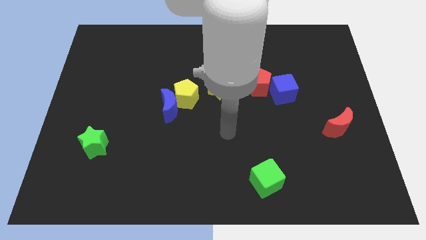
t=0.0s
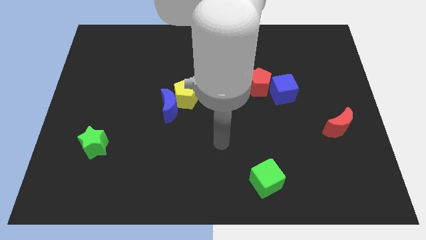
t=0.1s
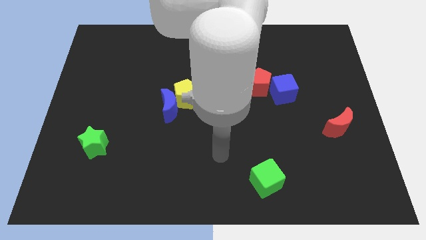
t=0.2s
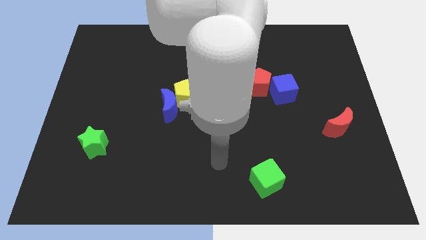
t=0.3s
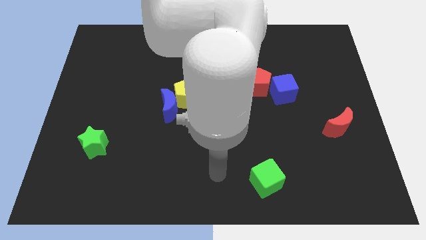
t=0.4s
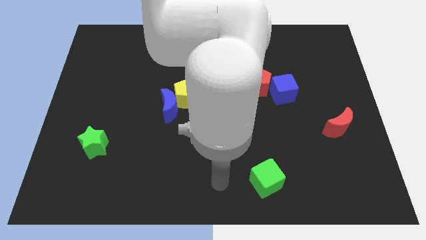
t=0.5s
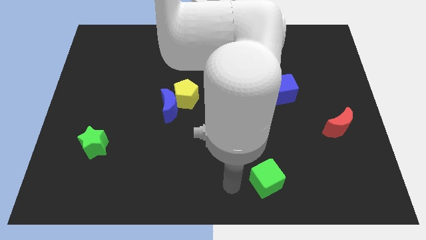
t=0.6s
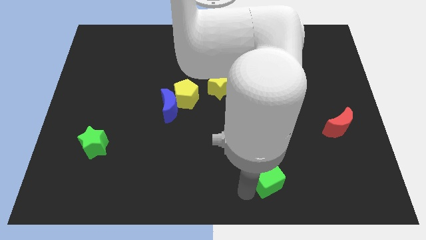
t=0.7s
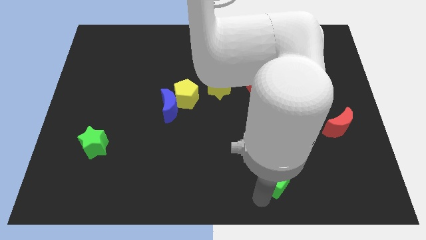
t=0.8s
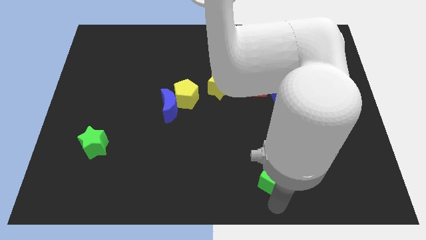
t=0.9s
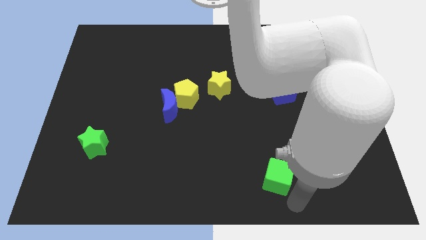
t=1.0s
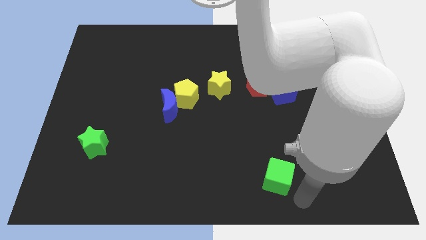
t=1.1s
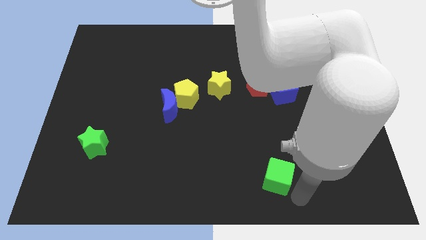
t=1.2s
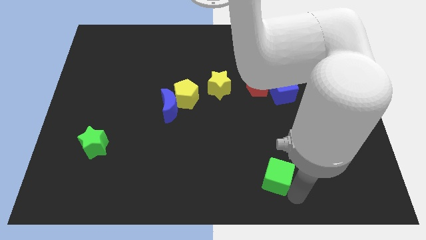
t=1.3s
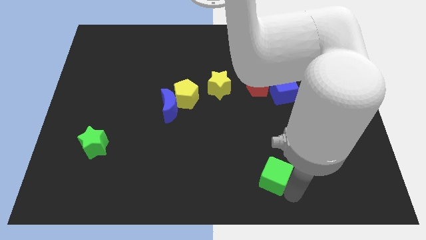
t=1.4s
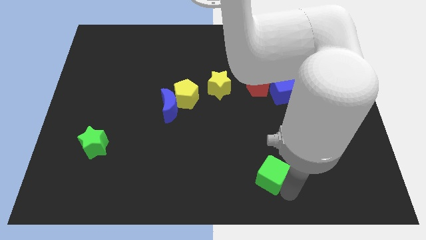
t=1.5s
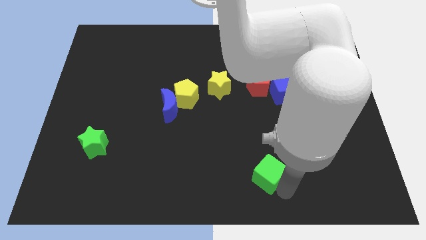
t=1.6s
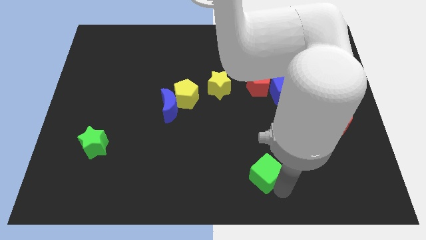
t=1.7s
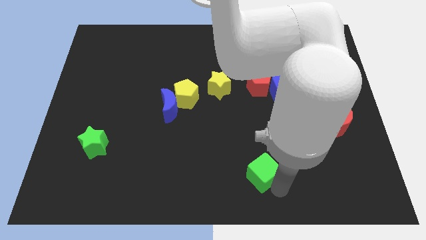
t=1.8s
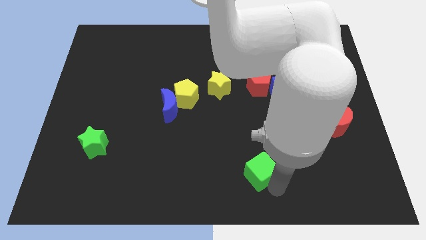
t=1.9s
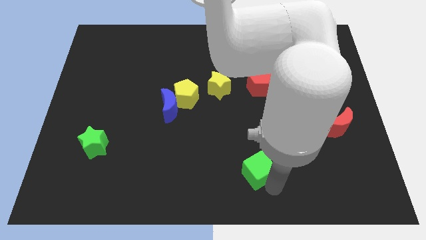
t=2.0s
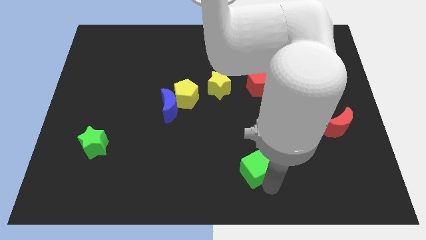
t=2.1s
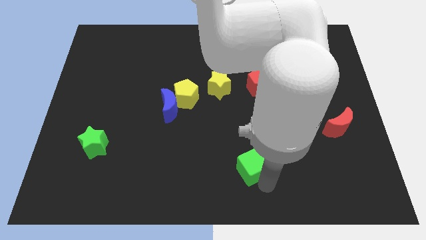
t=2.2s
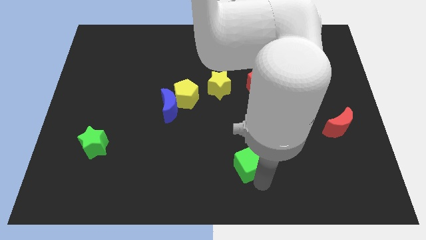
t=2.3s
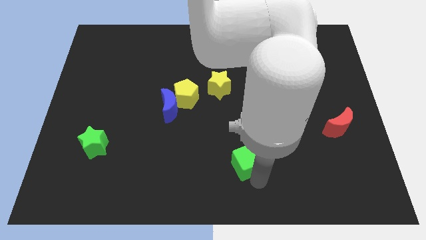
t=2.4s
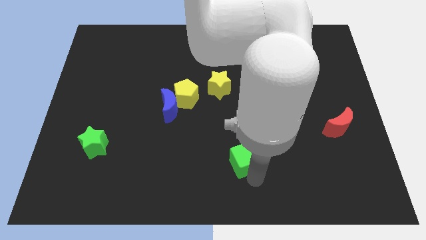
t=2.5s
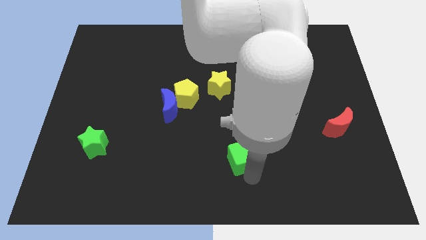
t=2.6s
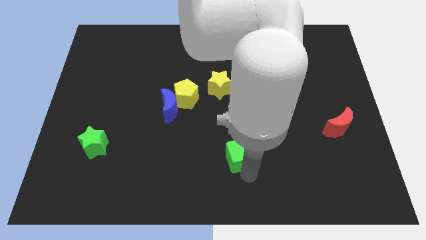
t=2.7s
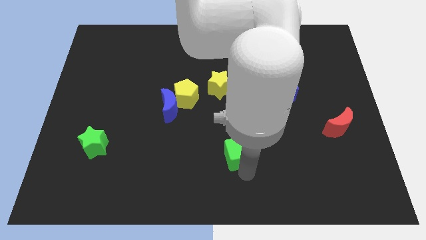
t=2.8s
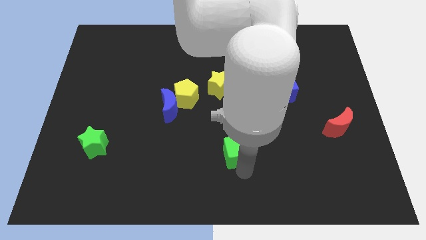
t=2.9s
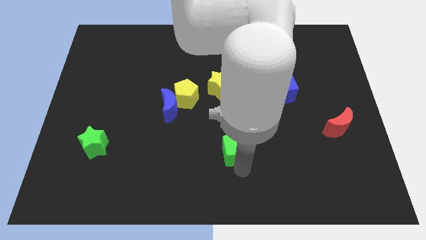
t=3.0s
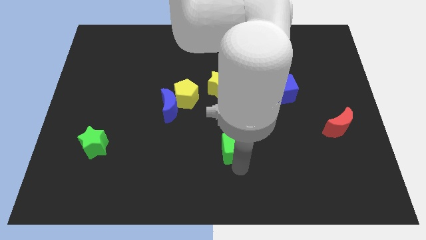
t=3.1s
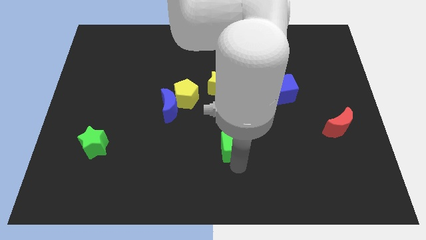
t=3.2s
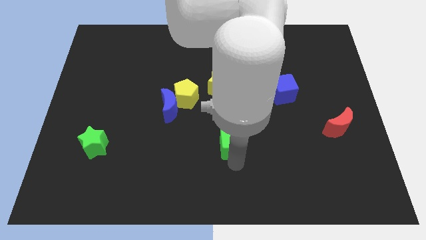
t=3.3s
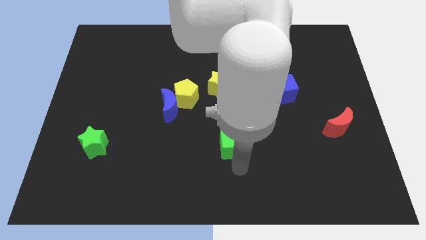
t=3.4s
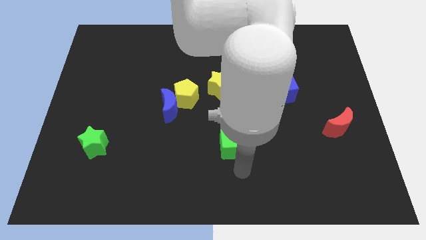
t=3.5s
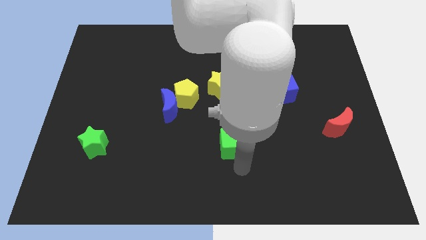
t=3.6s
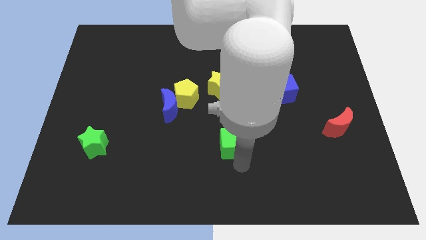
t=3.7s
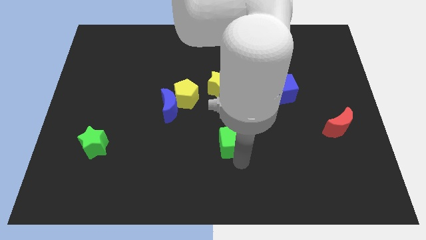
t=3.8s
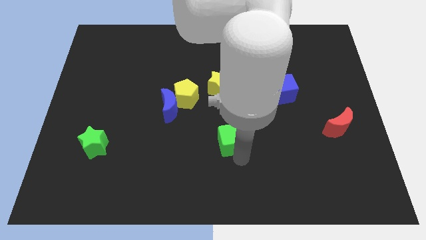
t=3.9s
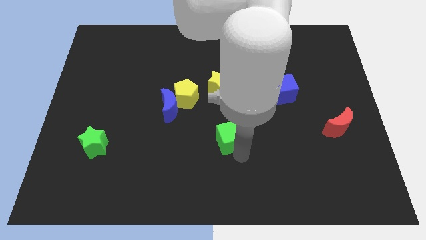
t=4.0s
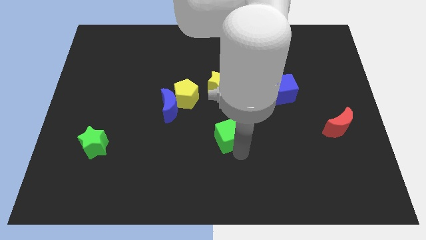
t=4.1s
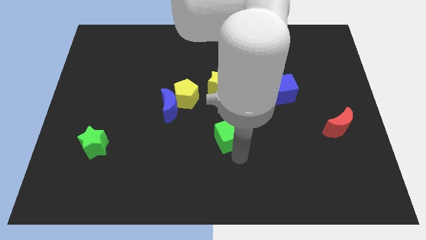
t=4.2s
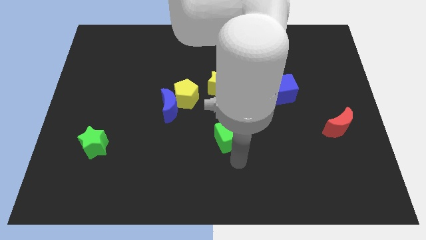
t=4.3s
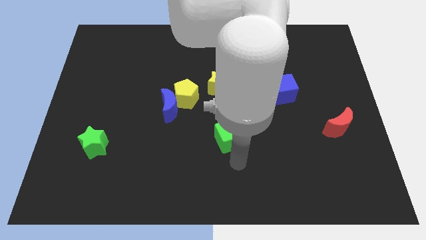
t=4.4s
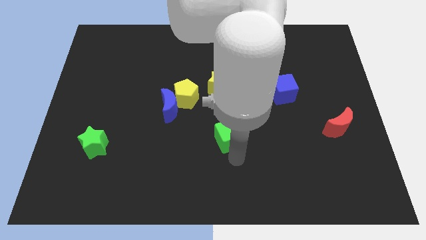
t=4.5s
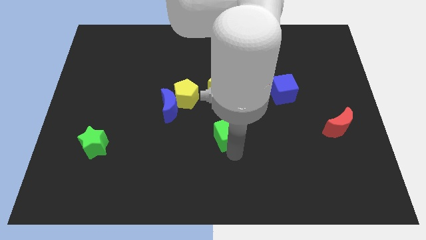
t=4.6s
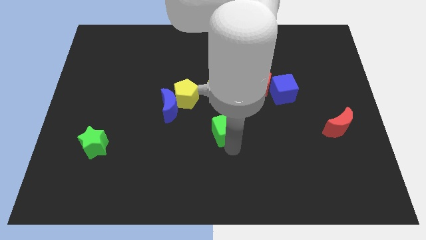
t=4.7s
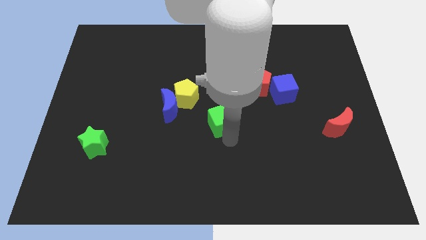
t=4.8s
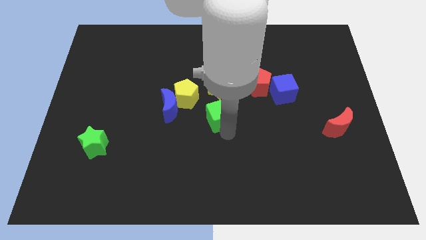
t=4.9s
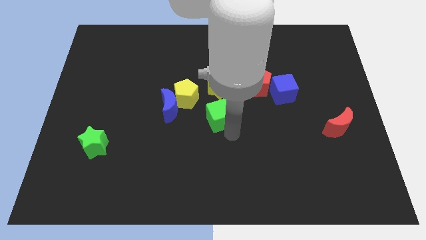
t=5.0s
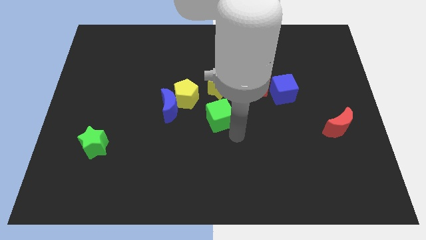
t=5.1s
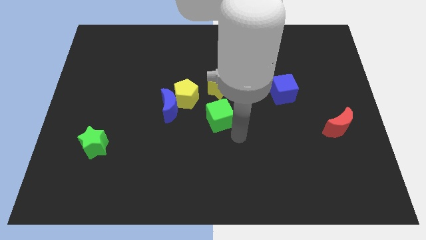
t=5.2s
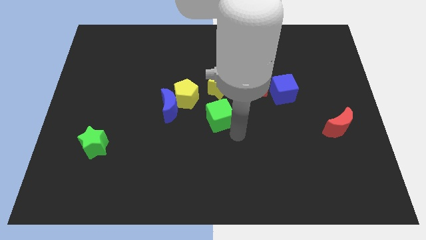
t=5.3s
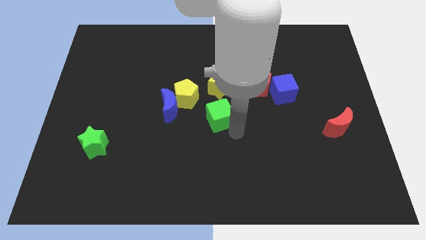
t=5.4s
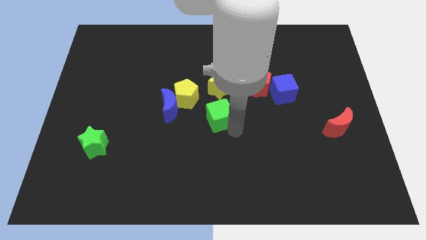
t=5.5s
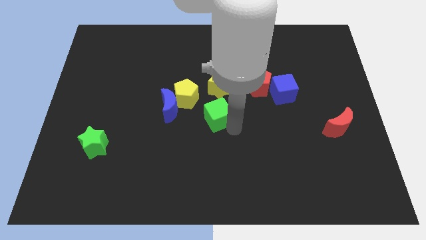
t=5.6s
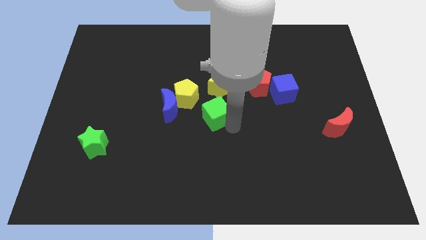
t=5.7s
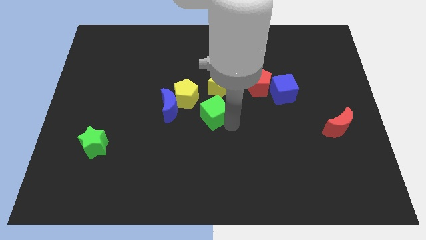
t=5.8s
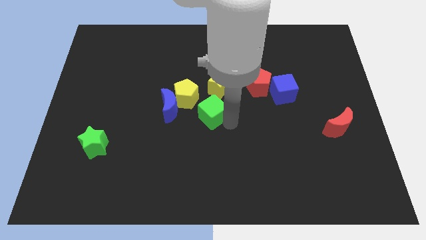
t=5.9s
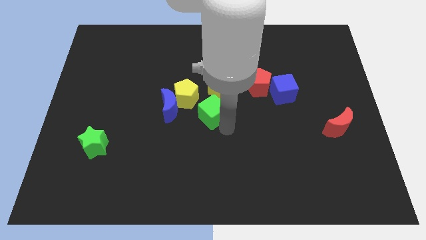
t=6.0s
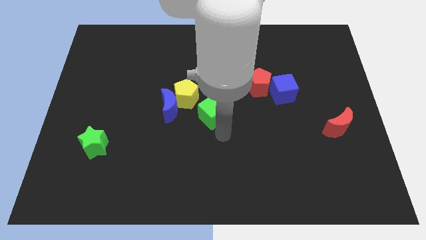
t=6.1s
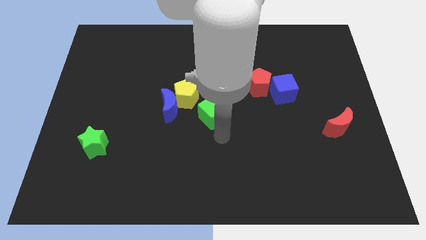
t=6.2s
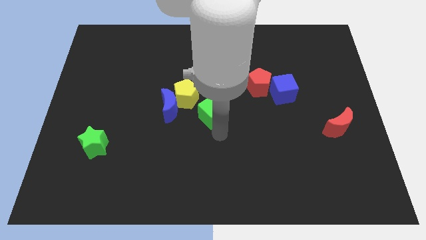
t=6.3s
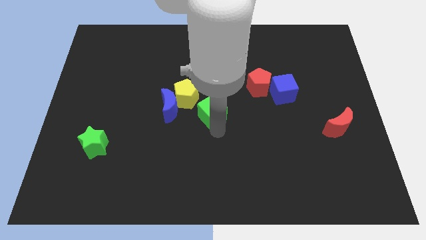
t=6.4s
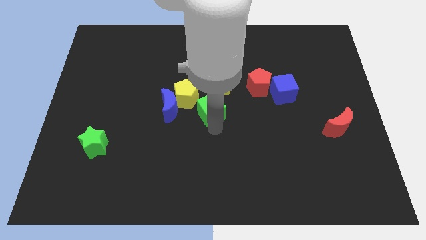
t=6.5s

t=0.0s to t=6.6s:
move the green cube up and then left

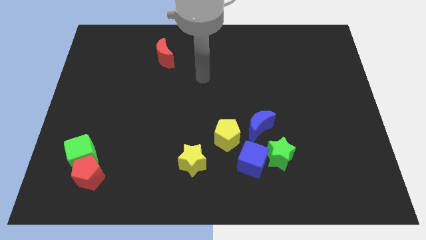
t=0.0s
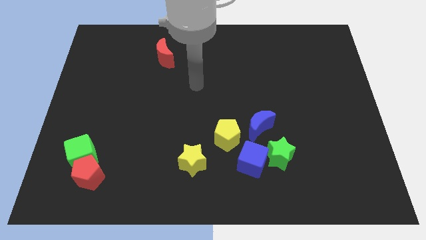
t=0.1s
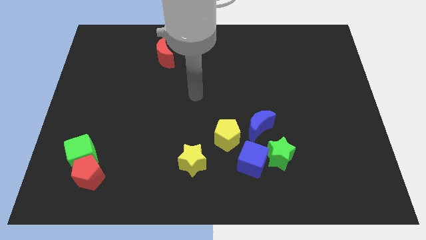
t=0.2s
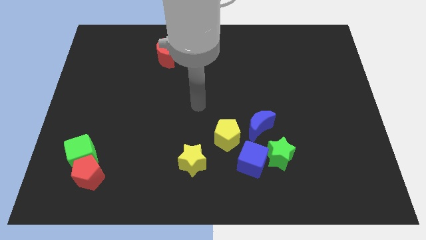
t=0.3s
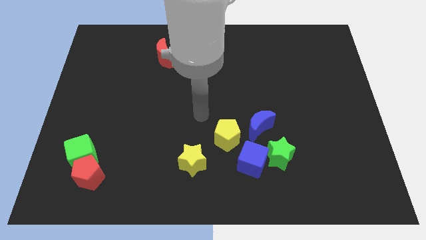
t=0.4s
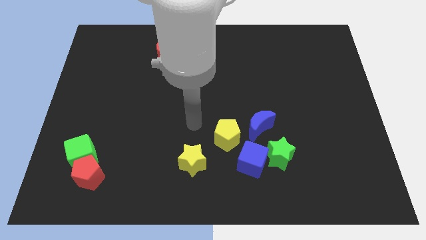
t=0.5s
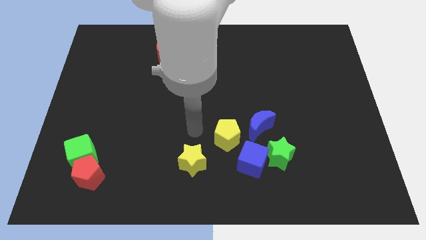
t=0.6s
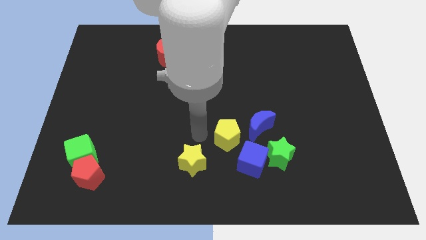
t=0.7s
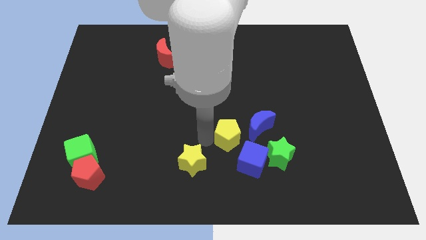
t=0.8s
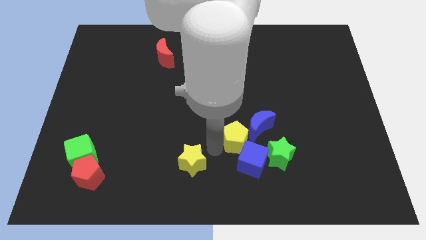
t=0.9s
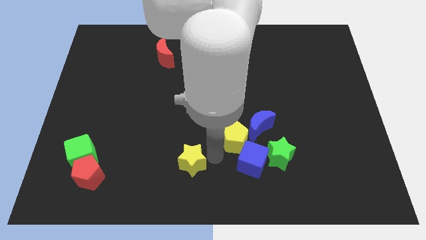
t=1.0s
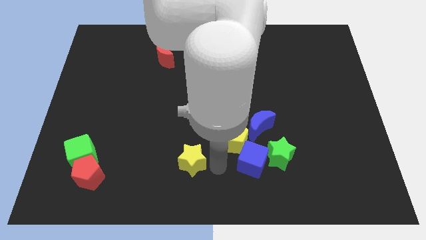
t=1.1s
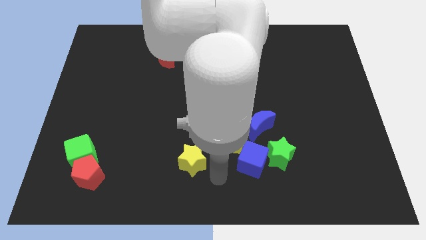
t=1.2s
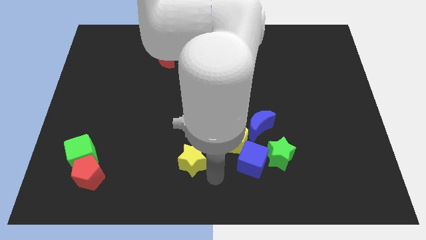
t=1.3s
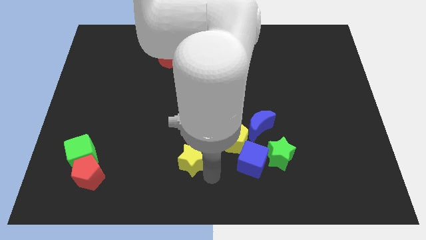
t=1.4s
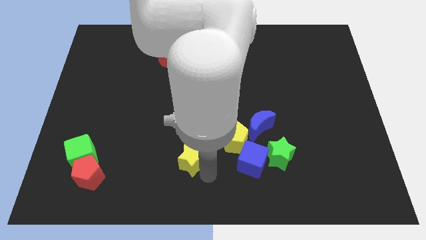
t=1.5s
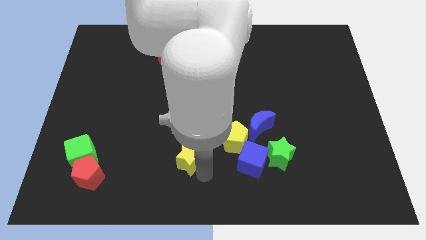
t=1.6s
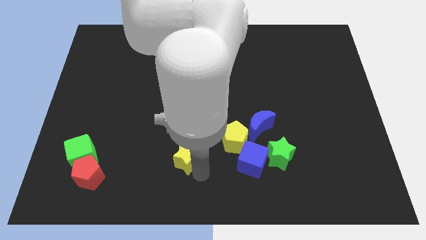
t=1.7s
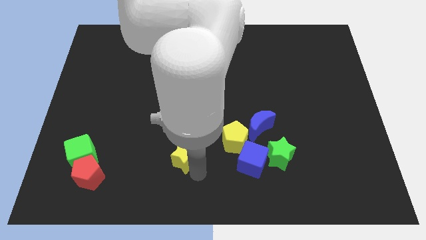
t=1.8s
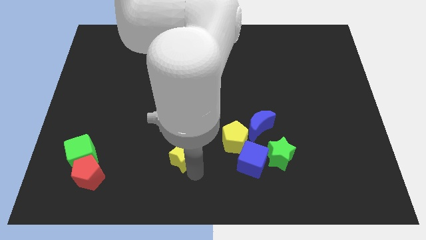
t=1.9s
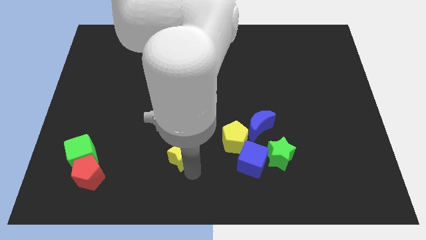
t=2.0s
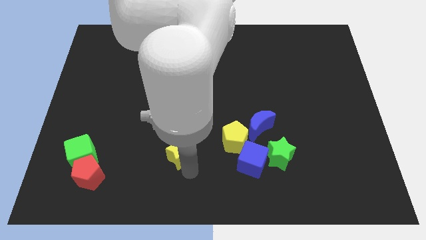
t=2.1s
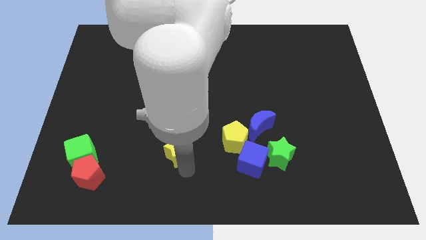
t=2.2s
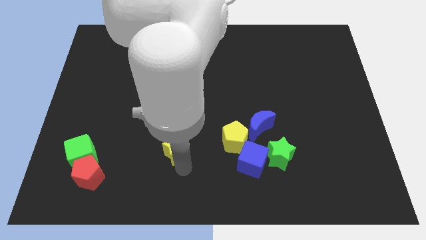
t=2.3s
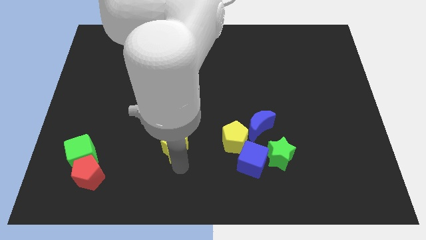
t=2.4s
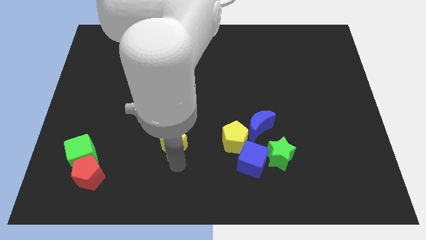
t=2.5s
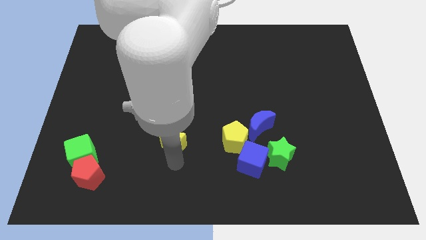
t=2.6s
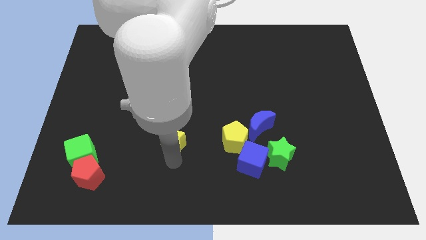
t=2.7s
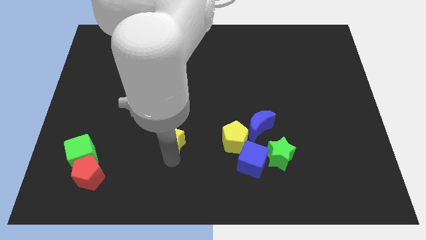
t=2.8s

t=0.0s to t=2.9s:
slide the yellow star slightly upwards and left
